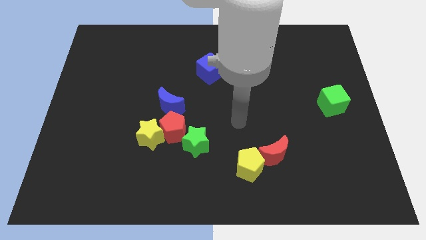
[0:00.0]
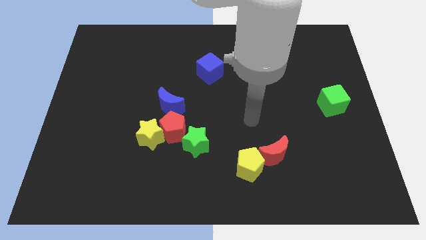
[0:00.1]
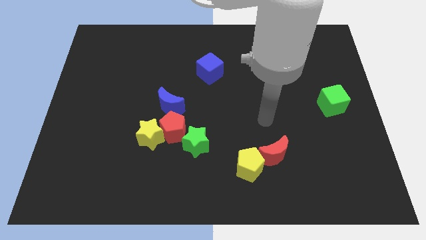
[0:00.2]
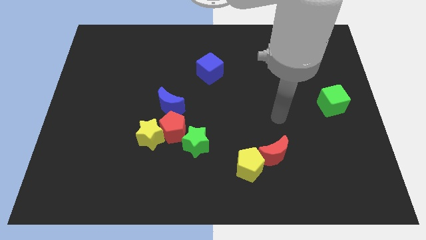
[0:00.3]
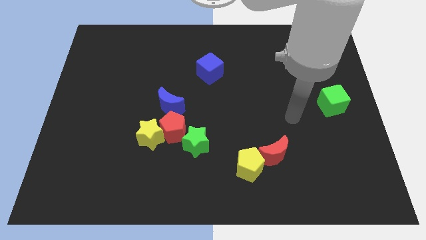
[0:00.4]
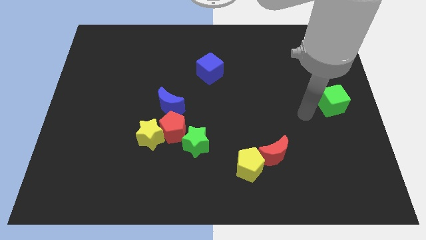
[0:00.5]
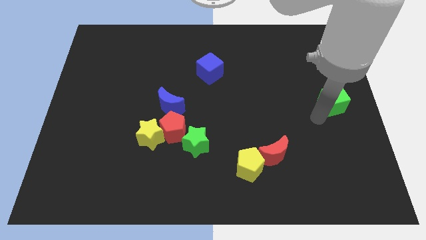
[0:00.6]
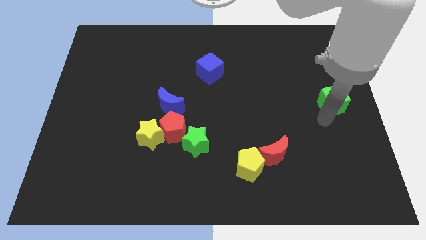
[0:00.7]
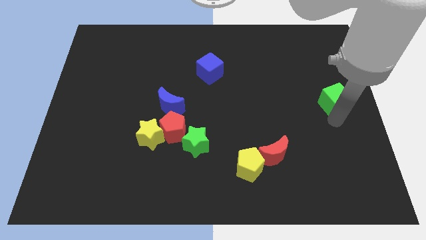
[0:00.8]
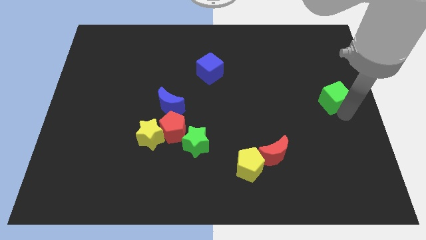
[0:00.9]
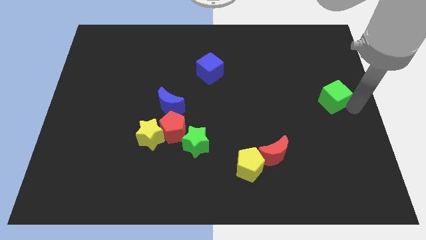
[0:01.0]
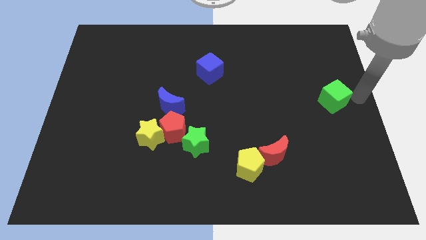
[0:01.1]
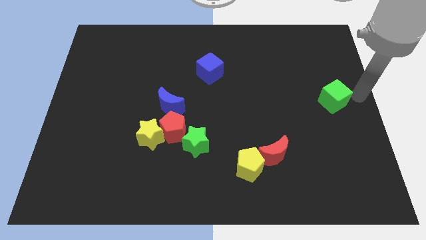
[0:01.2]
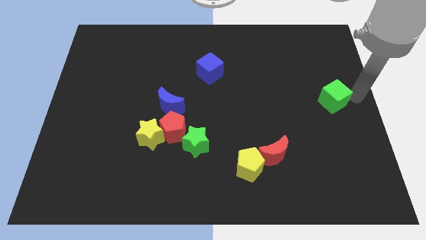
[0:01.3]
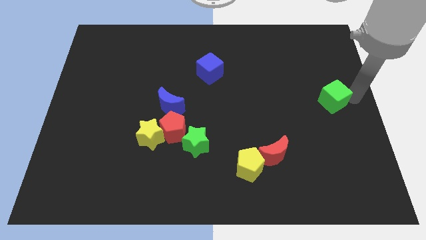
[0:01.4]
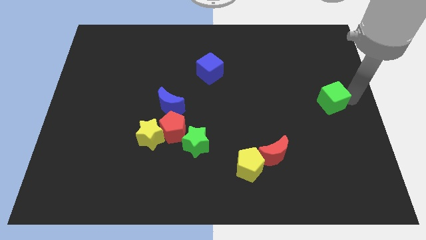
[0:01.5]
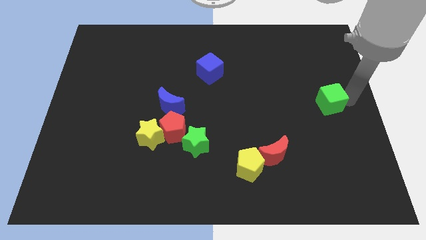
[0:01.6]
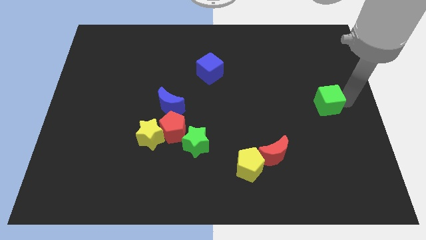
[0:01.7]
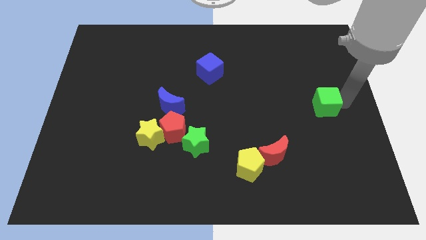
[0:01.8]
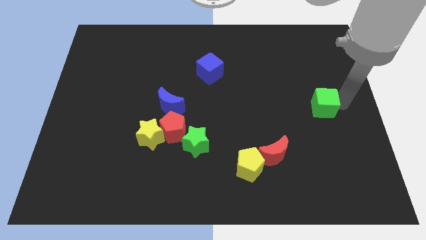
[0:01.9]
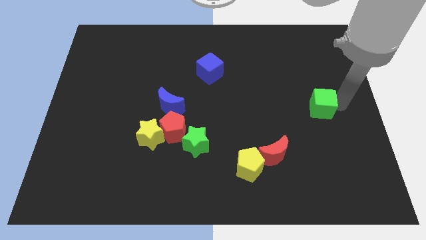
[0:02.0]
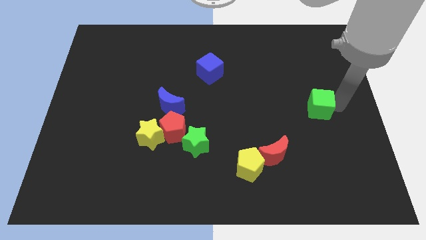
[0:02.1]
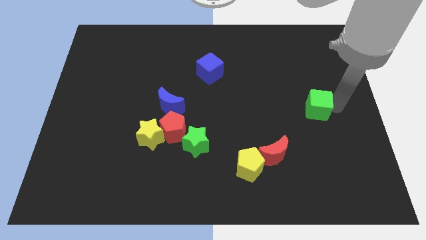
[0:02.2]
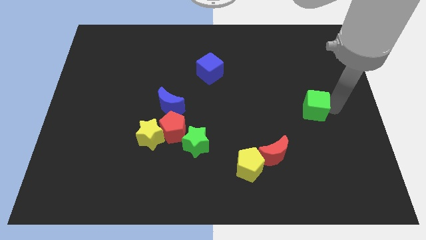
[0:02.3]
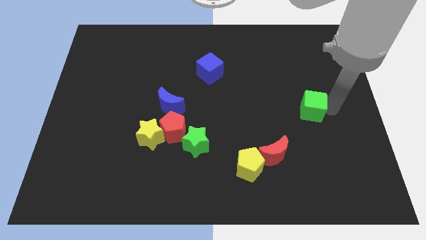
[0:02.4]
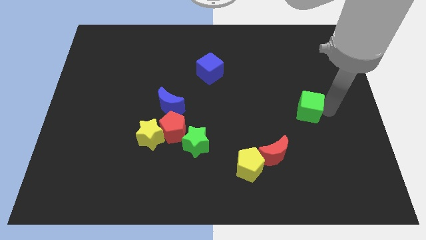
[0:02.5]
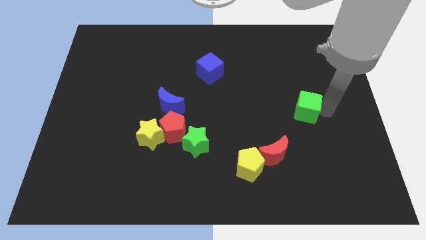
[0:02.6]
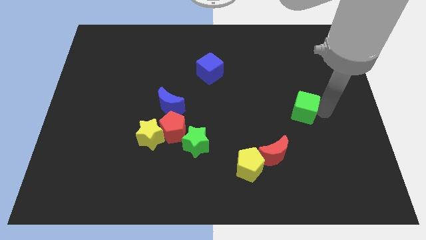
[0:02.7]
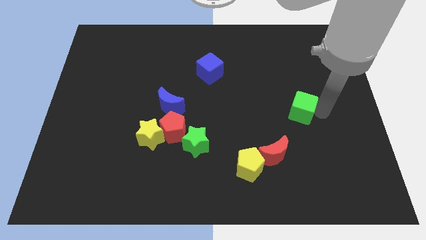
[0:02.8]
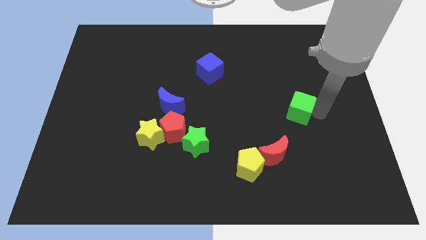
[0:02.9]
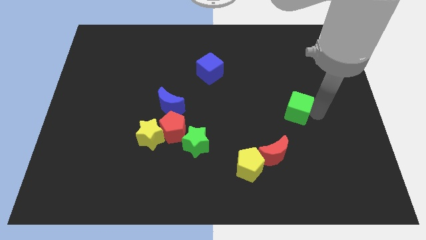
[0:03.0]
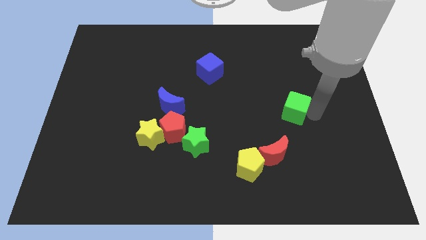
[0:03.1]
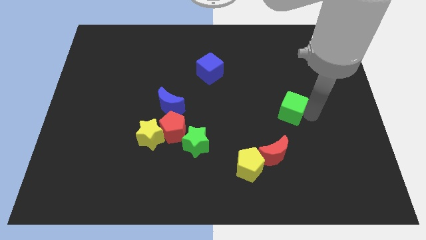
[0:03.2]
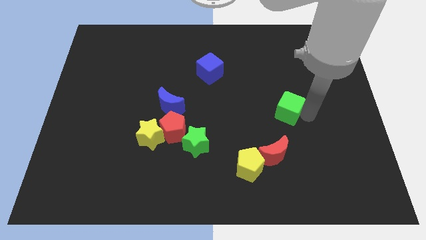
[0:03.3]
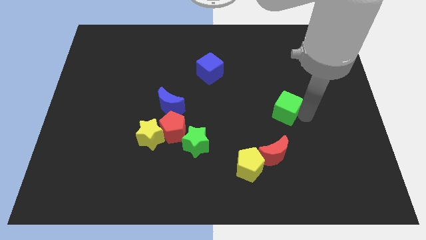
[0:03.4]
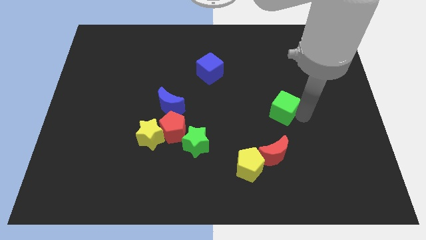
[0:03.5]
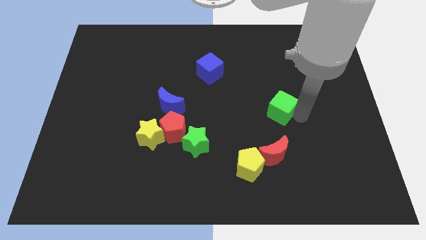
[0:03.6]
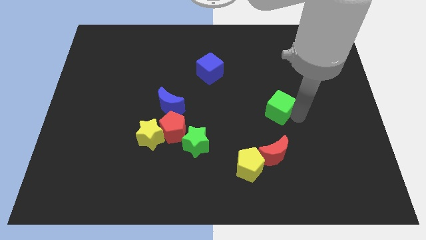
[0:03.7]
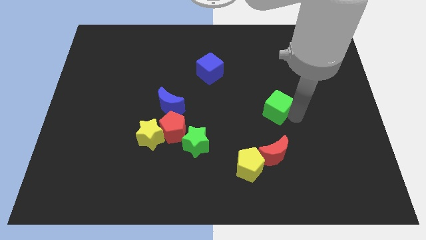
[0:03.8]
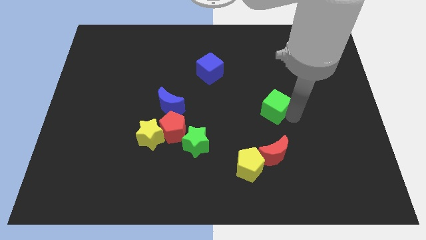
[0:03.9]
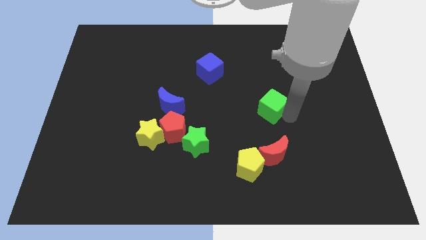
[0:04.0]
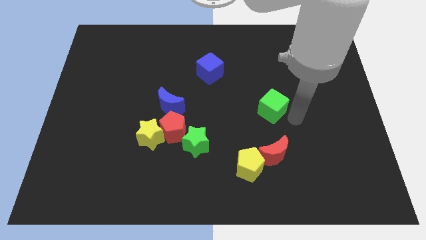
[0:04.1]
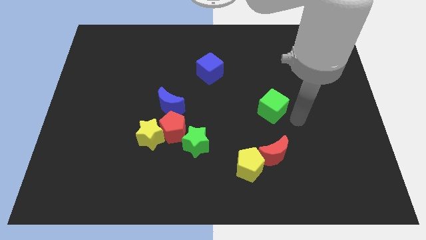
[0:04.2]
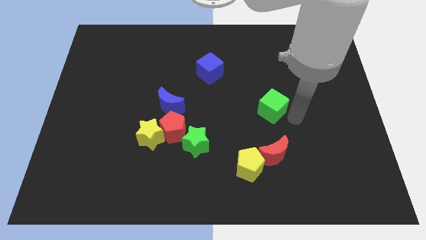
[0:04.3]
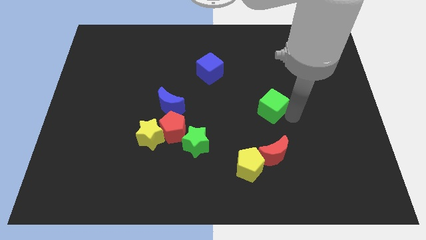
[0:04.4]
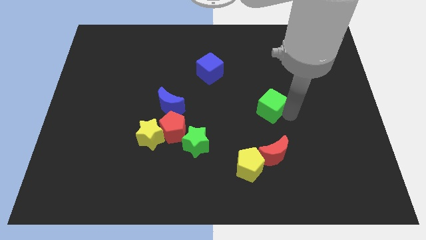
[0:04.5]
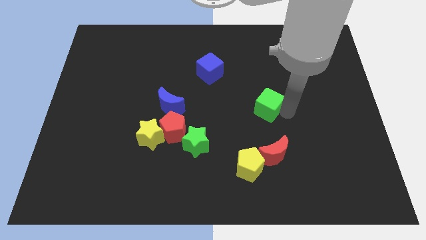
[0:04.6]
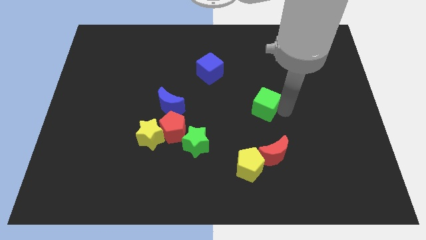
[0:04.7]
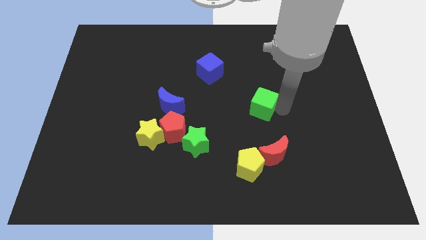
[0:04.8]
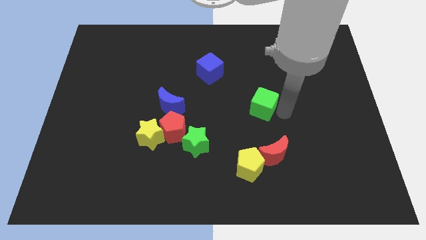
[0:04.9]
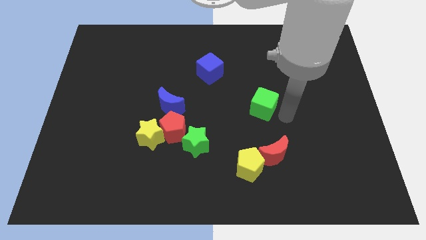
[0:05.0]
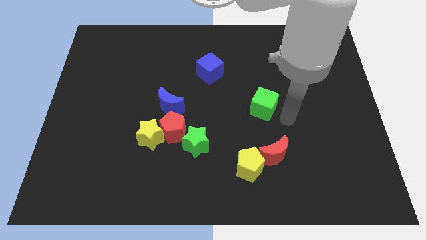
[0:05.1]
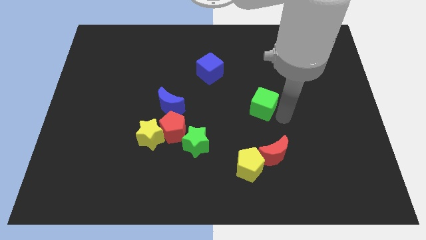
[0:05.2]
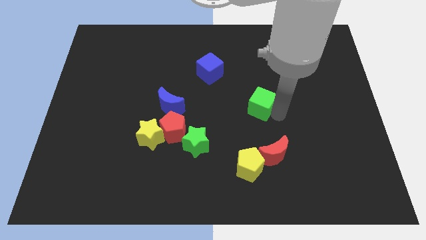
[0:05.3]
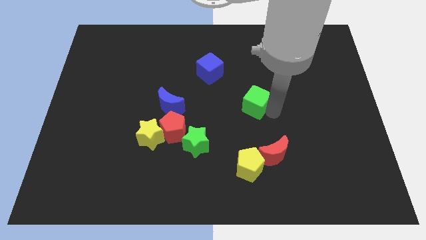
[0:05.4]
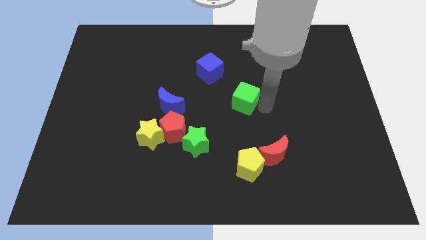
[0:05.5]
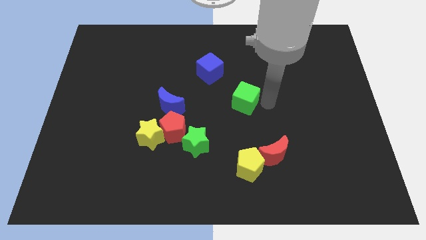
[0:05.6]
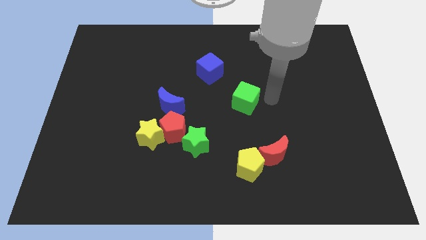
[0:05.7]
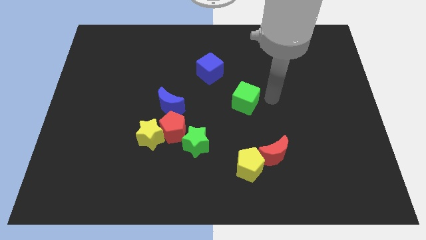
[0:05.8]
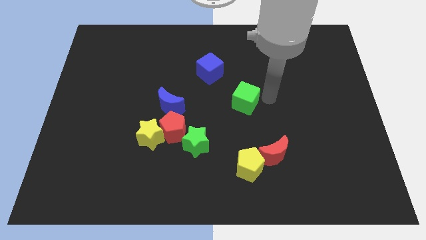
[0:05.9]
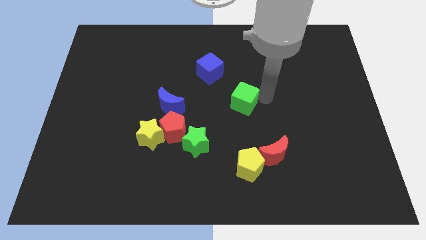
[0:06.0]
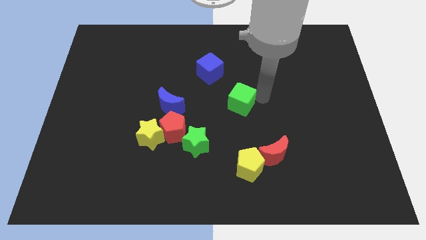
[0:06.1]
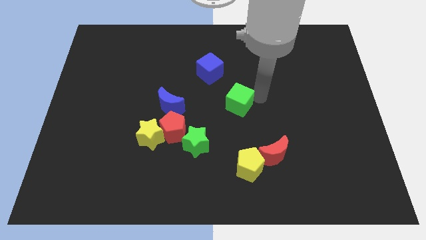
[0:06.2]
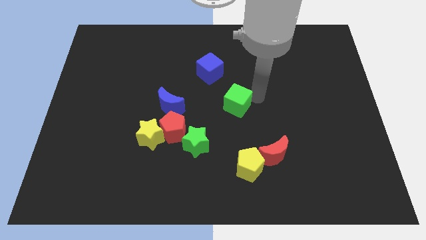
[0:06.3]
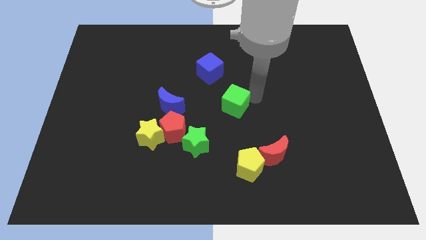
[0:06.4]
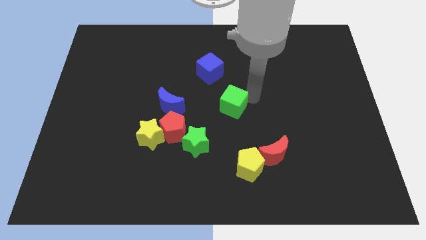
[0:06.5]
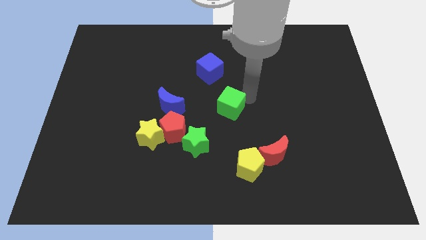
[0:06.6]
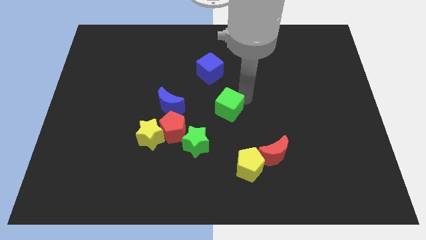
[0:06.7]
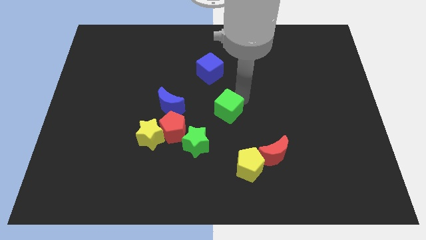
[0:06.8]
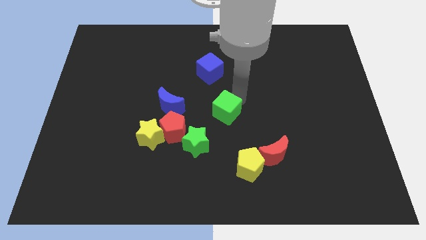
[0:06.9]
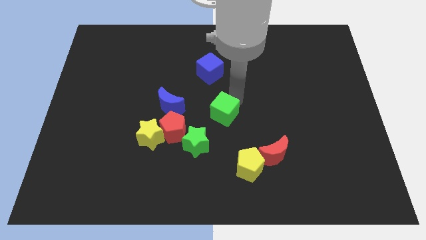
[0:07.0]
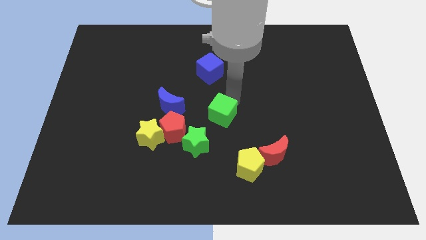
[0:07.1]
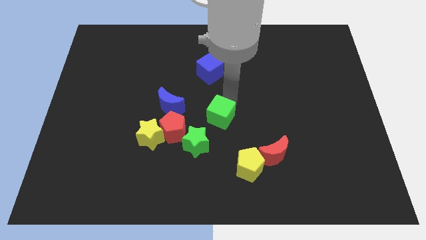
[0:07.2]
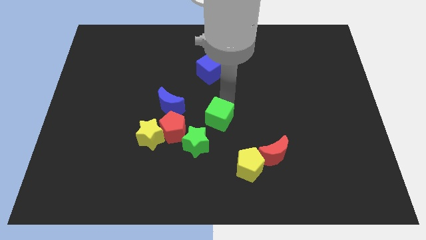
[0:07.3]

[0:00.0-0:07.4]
put the green cube above the green star
